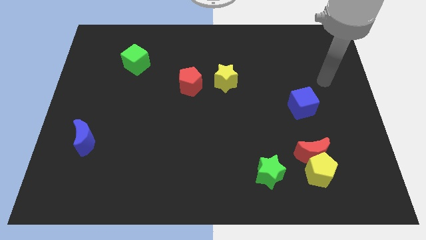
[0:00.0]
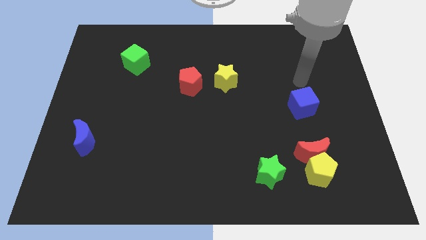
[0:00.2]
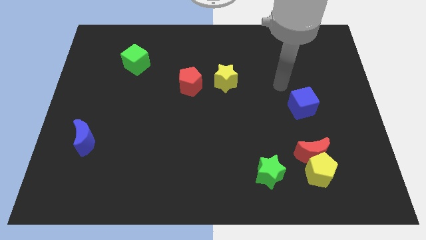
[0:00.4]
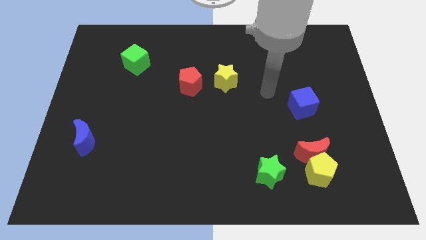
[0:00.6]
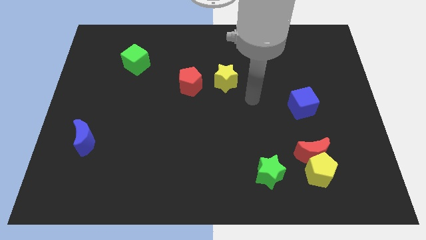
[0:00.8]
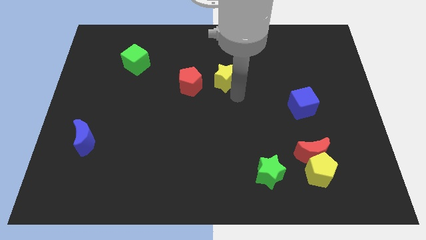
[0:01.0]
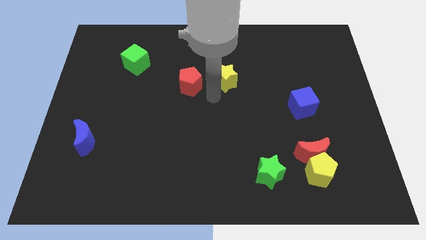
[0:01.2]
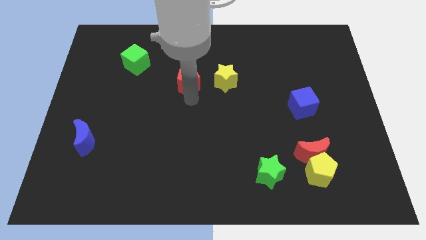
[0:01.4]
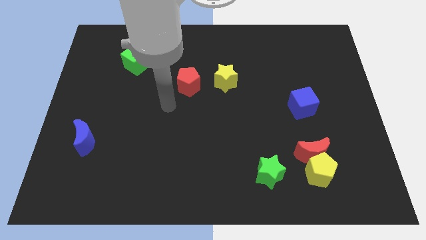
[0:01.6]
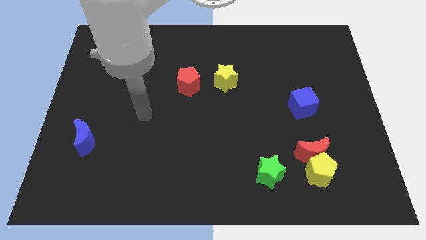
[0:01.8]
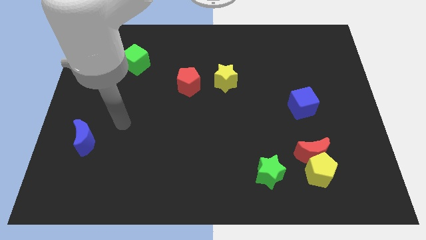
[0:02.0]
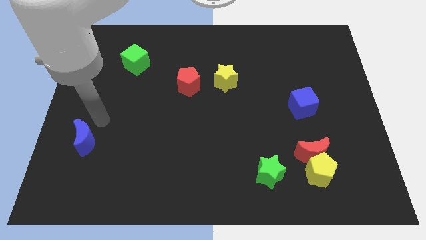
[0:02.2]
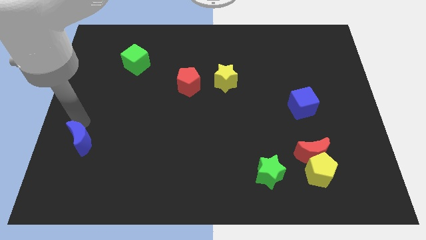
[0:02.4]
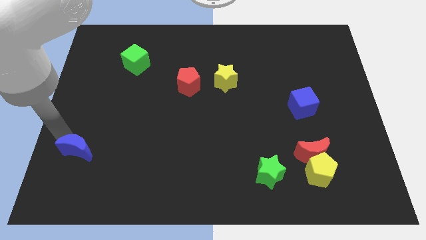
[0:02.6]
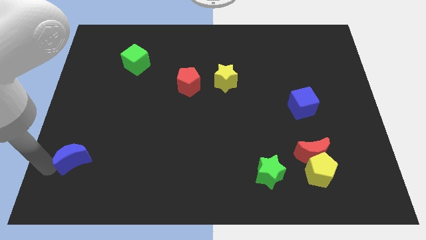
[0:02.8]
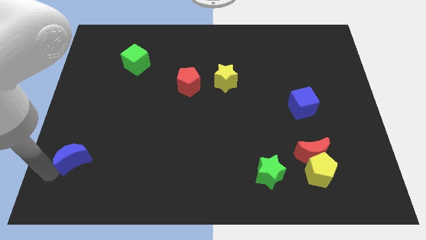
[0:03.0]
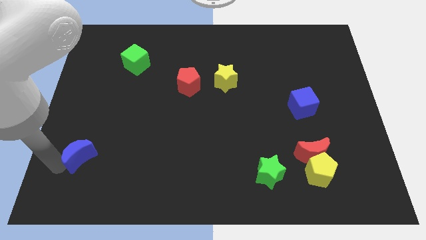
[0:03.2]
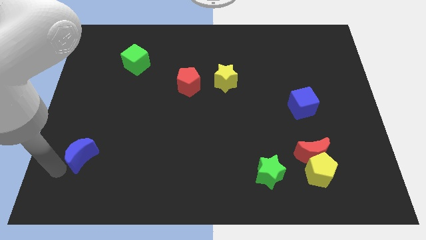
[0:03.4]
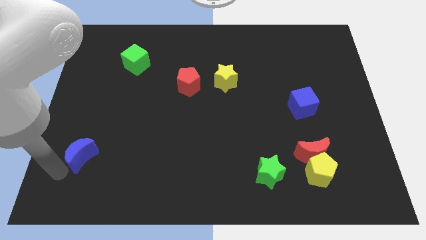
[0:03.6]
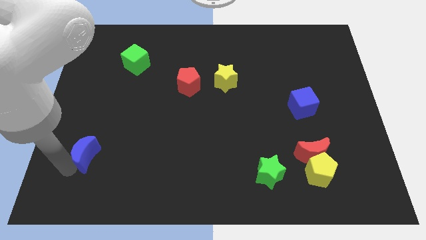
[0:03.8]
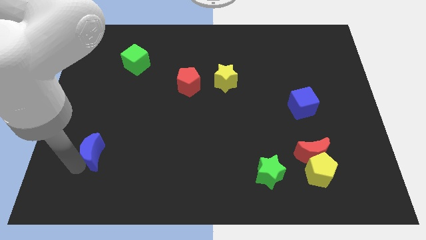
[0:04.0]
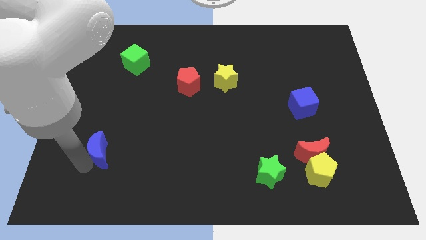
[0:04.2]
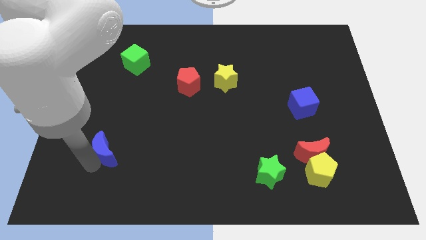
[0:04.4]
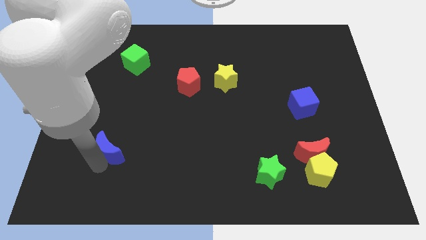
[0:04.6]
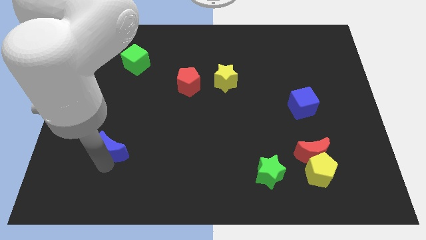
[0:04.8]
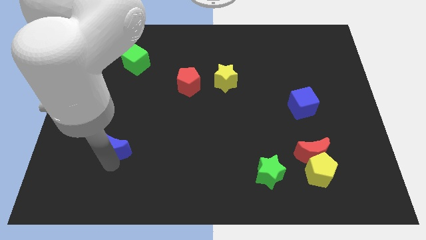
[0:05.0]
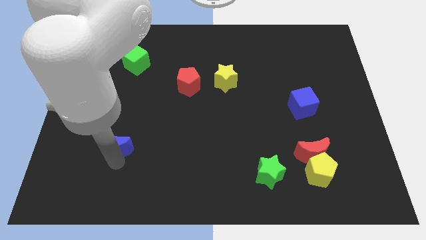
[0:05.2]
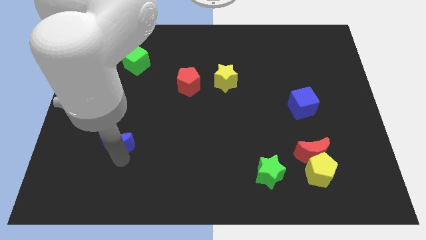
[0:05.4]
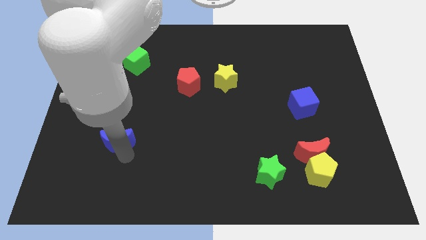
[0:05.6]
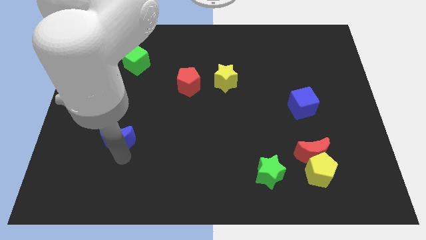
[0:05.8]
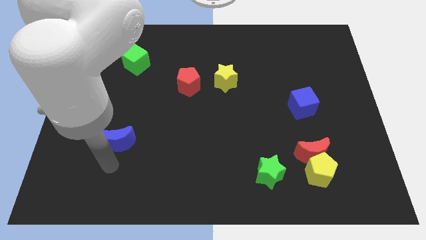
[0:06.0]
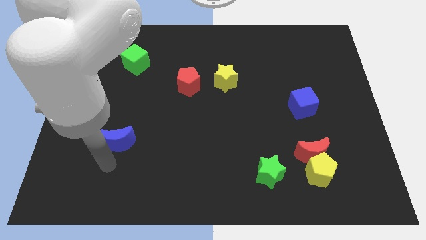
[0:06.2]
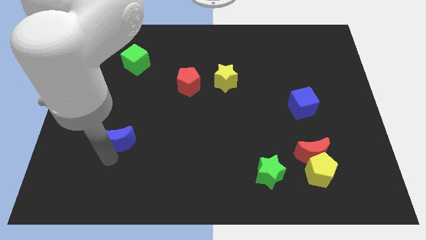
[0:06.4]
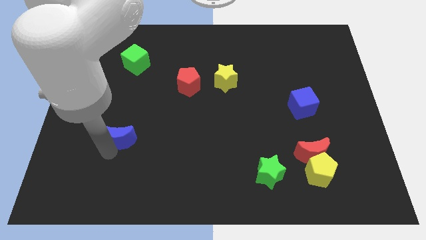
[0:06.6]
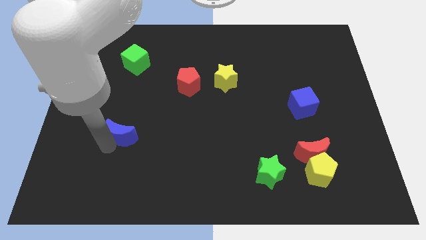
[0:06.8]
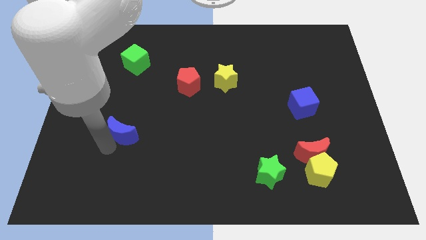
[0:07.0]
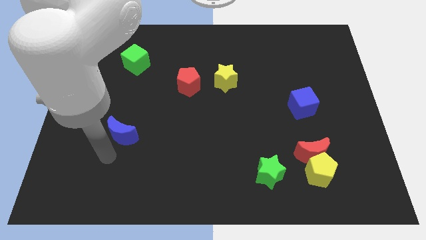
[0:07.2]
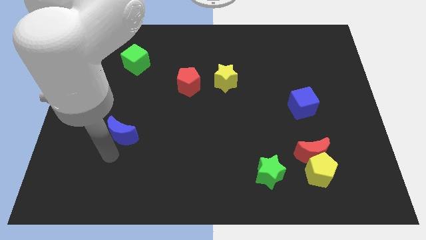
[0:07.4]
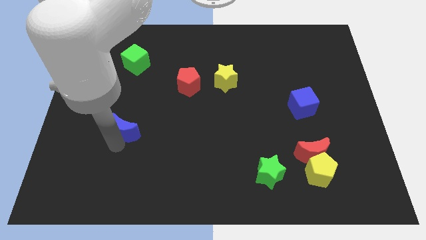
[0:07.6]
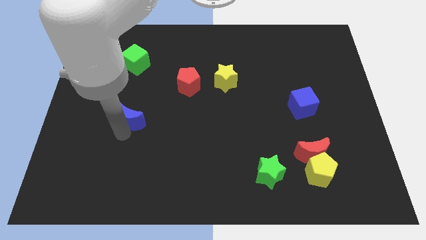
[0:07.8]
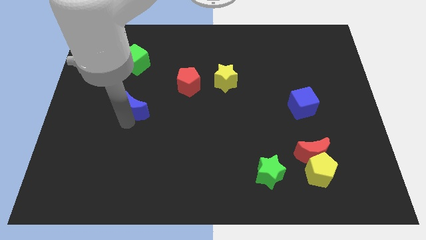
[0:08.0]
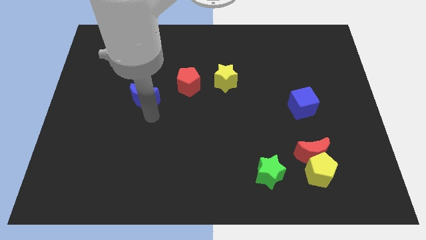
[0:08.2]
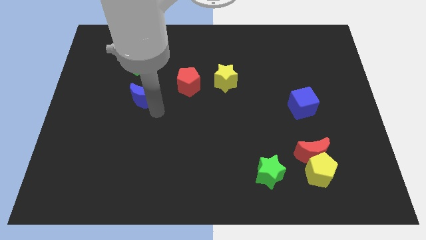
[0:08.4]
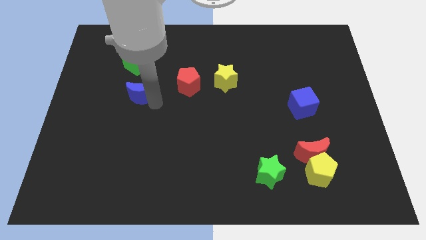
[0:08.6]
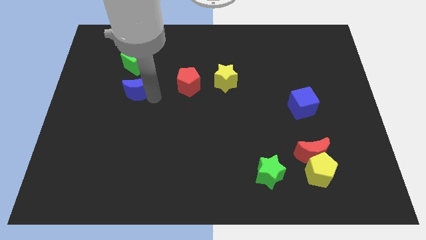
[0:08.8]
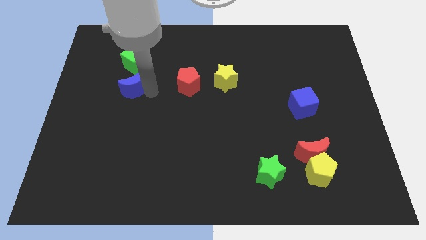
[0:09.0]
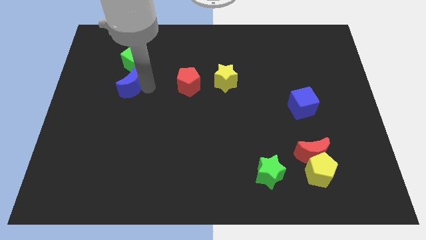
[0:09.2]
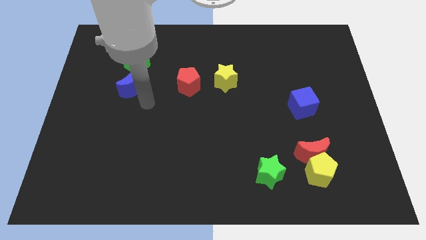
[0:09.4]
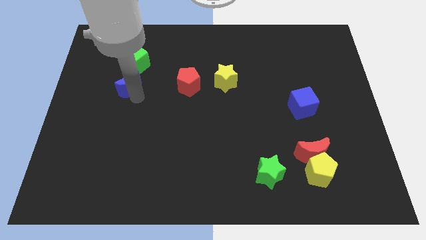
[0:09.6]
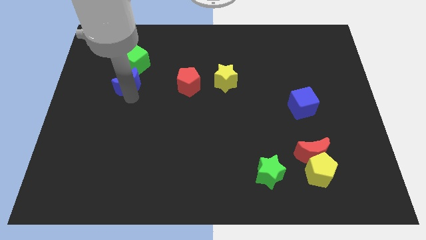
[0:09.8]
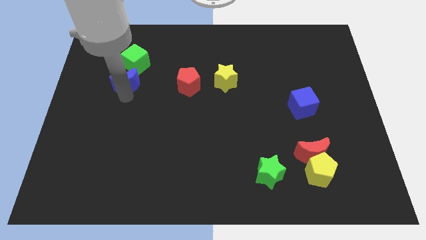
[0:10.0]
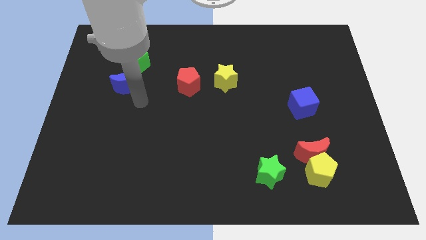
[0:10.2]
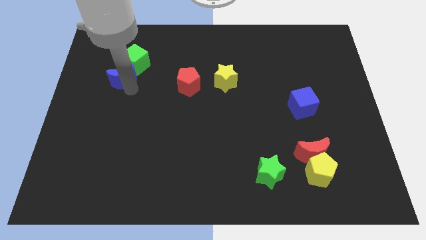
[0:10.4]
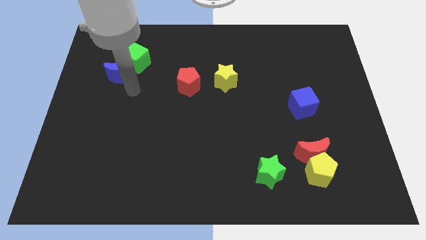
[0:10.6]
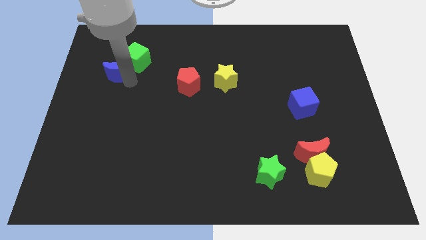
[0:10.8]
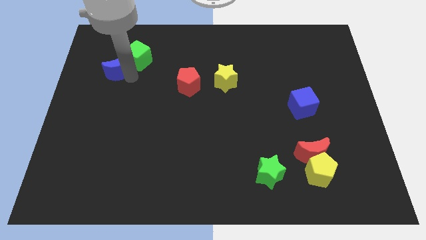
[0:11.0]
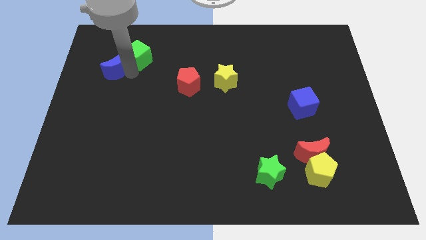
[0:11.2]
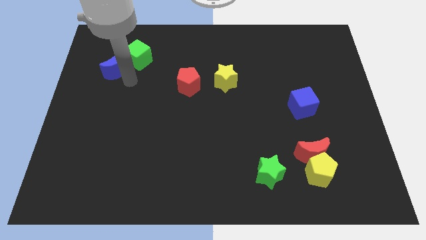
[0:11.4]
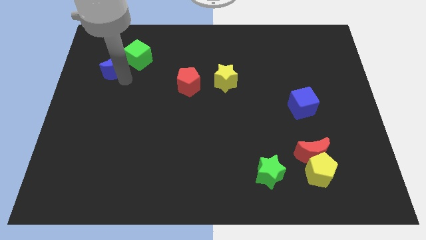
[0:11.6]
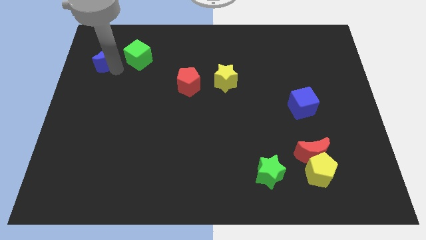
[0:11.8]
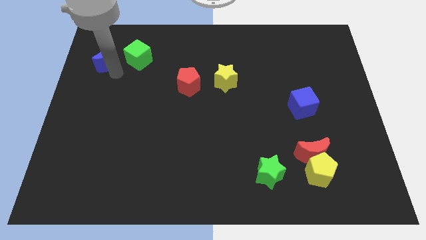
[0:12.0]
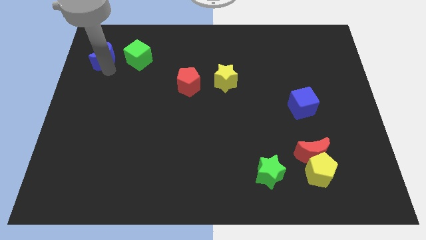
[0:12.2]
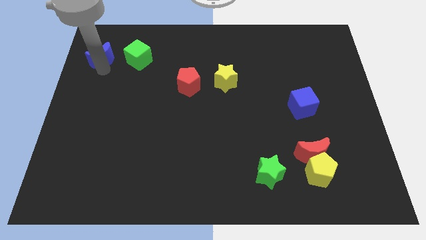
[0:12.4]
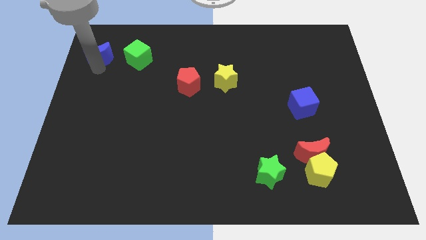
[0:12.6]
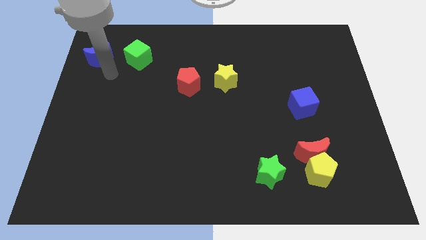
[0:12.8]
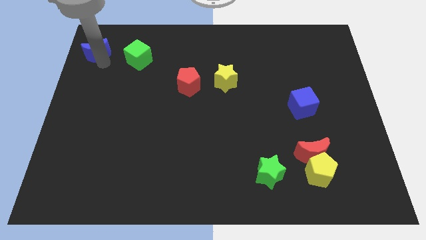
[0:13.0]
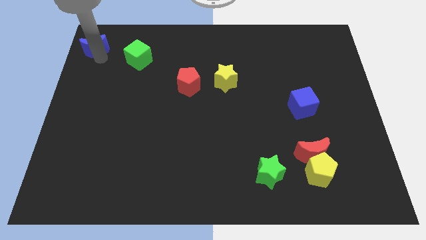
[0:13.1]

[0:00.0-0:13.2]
put the blue moon to the upper left corner
